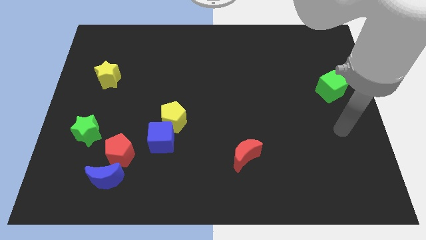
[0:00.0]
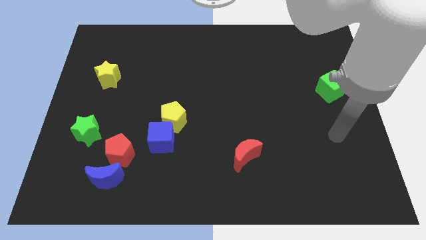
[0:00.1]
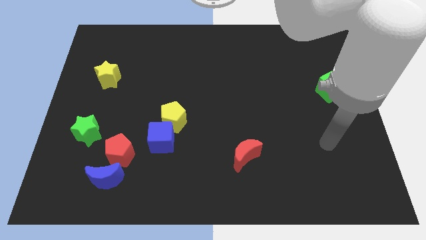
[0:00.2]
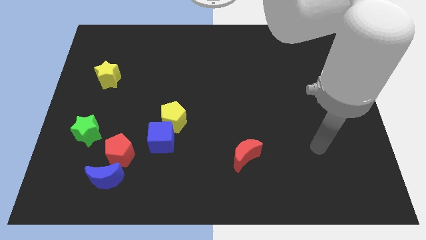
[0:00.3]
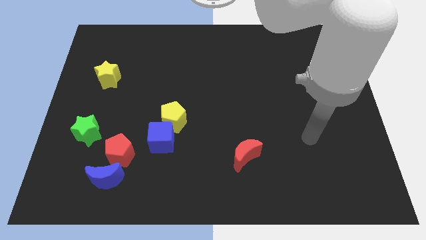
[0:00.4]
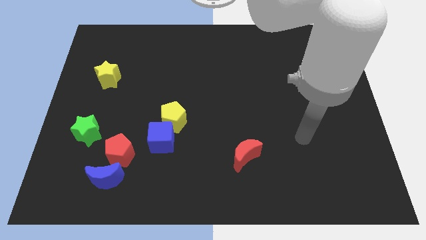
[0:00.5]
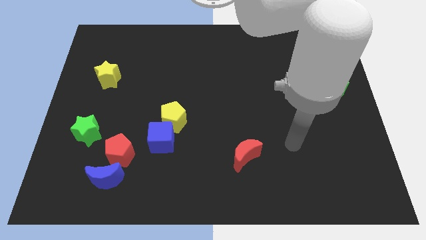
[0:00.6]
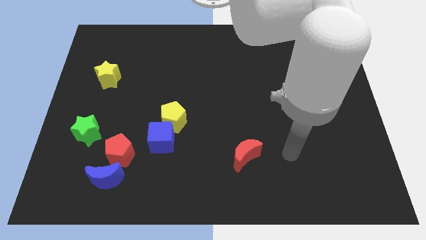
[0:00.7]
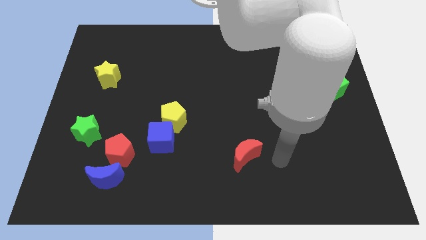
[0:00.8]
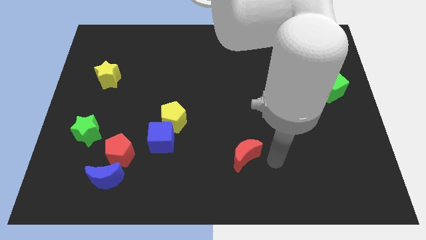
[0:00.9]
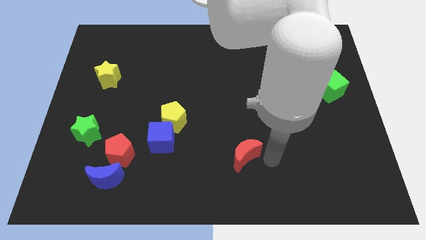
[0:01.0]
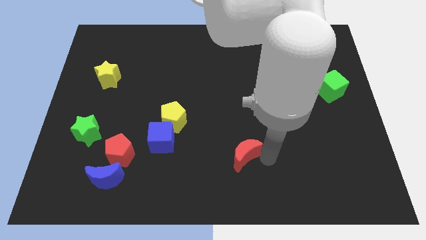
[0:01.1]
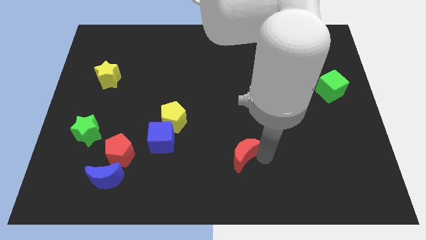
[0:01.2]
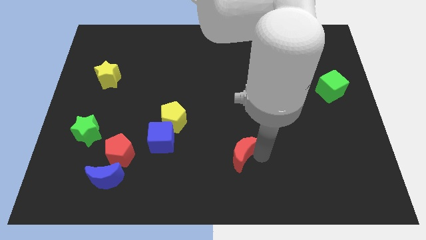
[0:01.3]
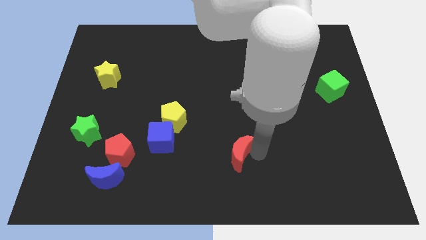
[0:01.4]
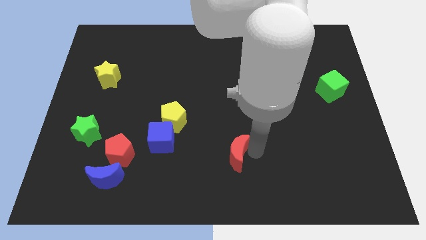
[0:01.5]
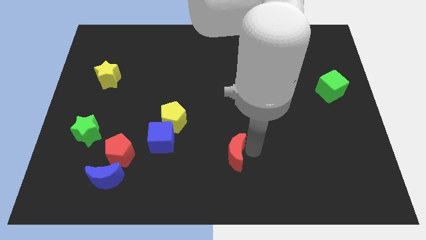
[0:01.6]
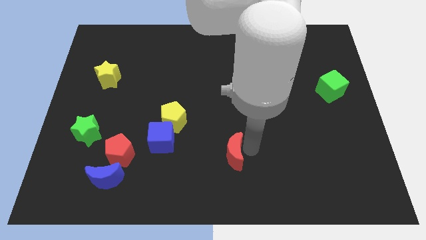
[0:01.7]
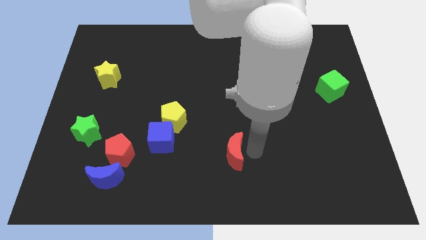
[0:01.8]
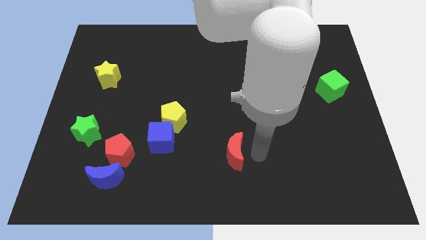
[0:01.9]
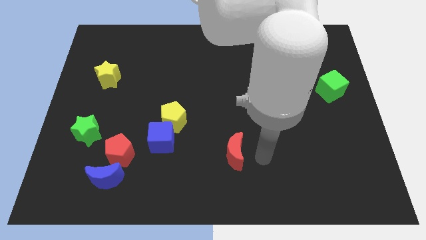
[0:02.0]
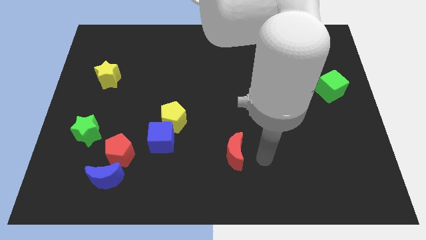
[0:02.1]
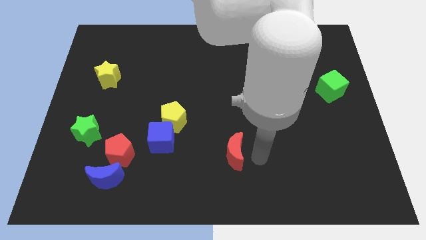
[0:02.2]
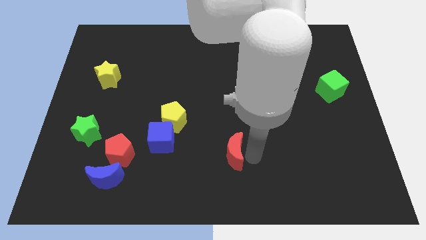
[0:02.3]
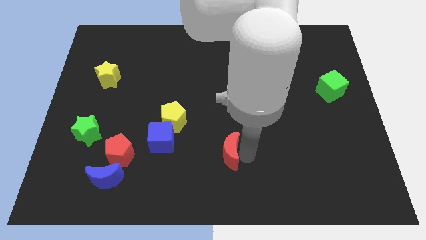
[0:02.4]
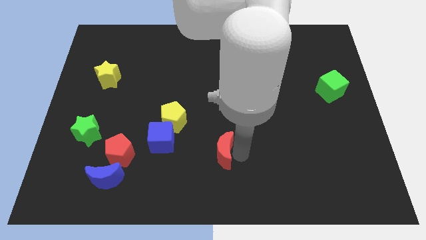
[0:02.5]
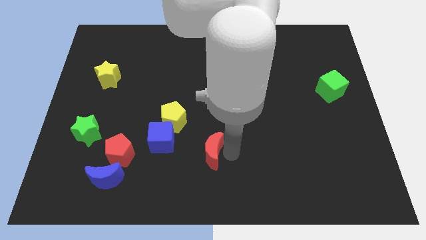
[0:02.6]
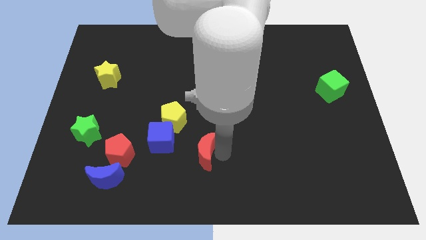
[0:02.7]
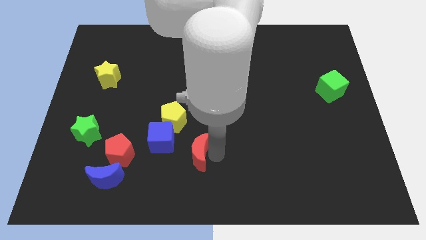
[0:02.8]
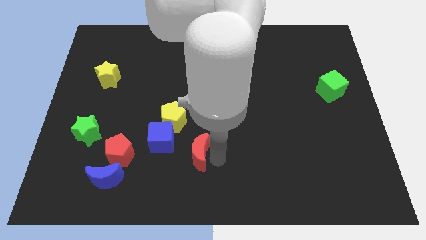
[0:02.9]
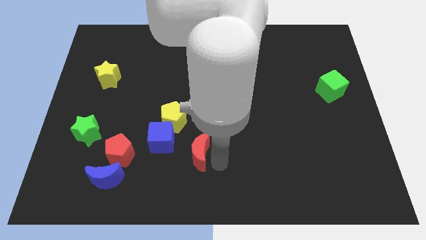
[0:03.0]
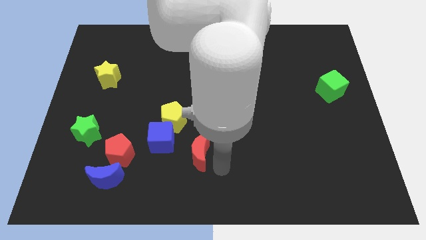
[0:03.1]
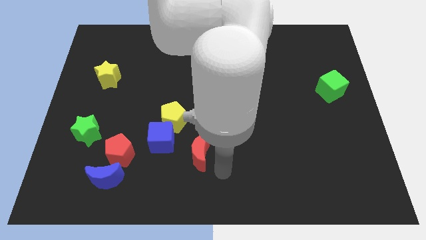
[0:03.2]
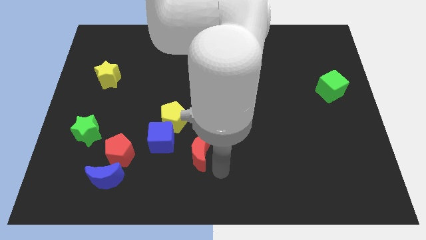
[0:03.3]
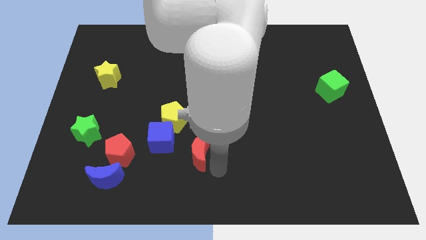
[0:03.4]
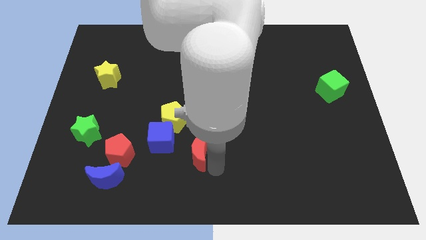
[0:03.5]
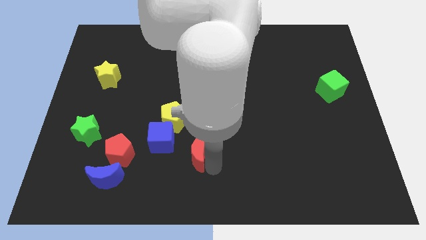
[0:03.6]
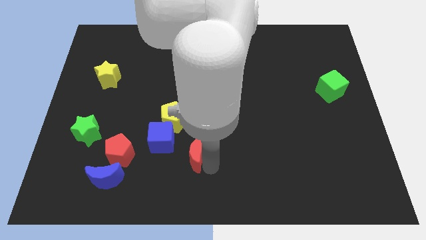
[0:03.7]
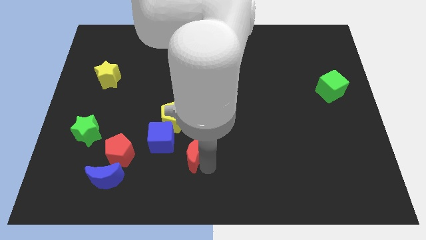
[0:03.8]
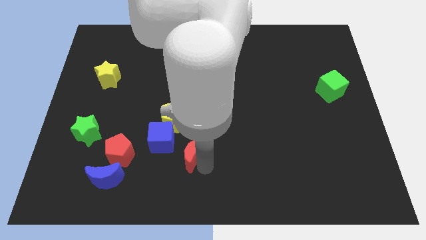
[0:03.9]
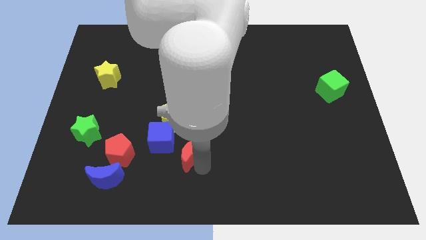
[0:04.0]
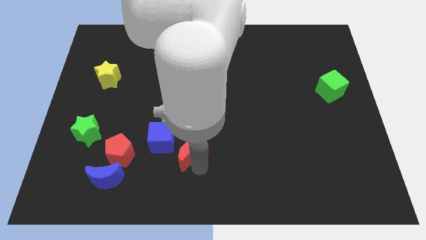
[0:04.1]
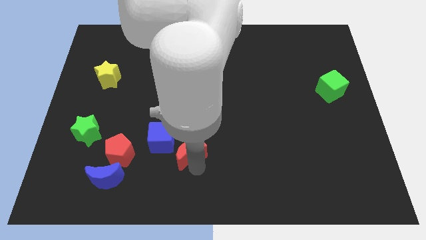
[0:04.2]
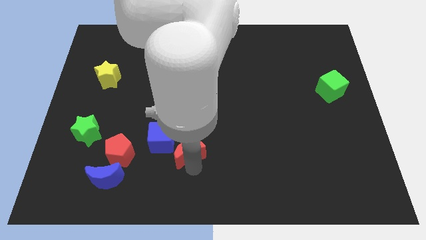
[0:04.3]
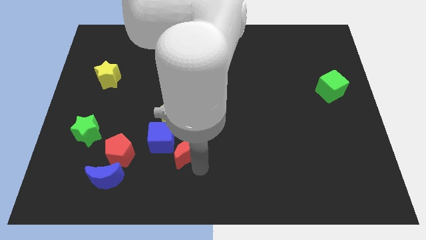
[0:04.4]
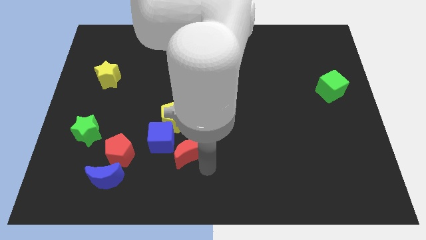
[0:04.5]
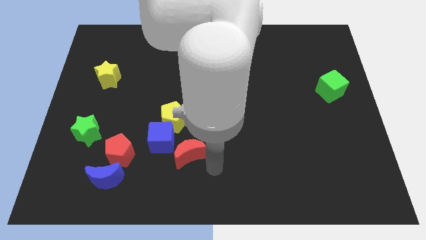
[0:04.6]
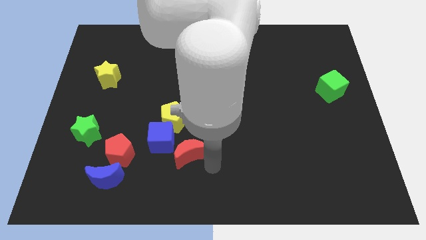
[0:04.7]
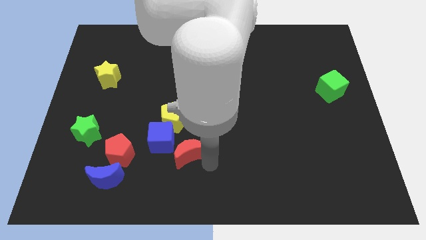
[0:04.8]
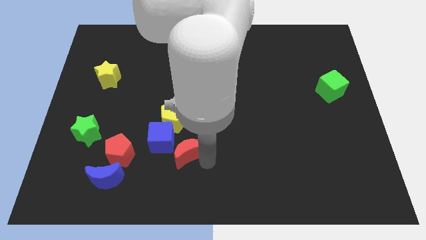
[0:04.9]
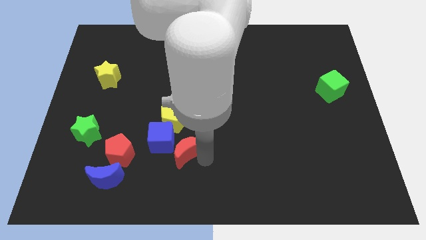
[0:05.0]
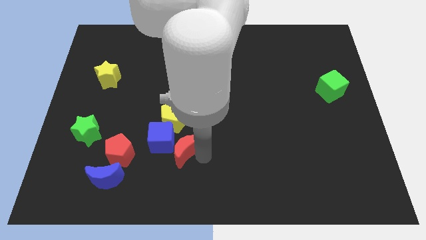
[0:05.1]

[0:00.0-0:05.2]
put the red moon to the blue cube

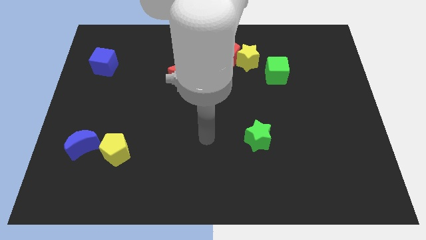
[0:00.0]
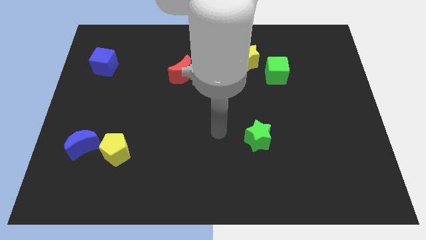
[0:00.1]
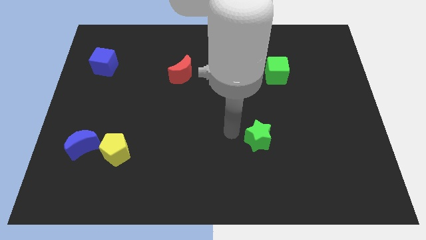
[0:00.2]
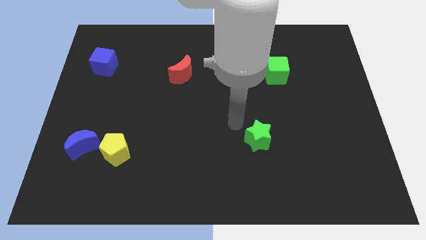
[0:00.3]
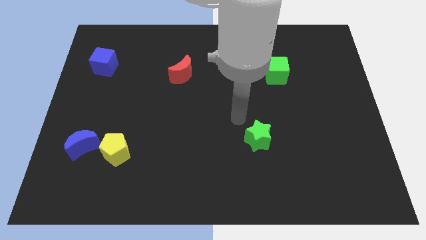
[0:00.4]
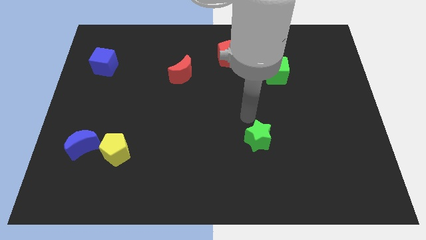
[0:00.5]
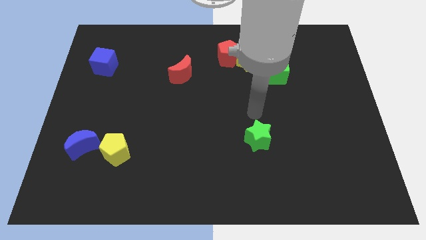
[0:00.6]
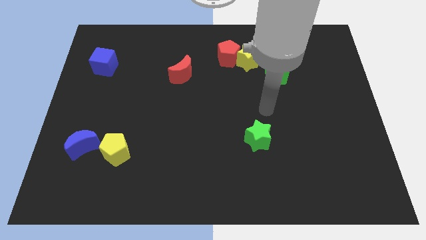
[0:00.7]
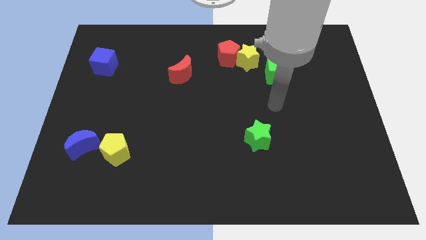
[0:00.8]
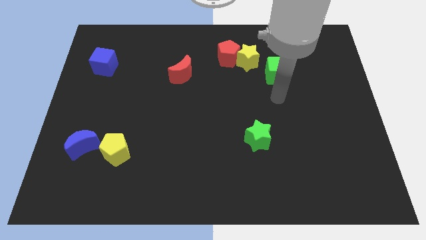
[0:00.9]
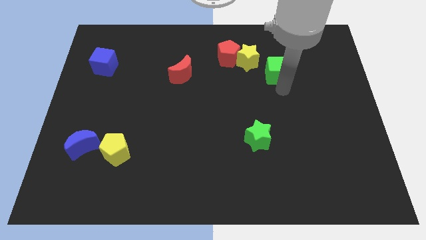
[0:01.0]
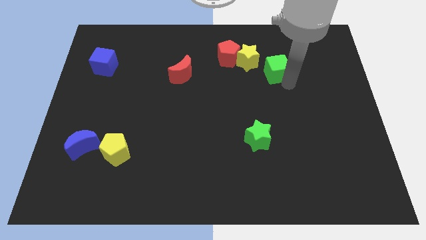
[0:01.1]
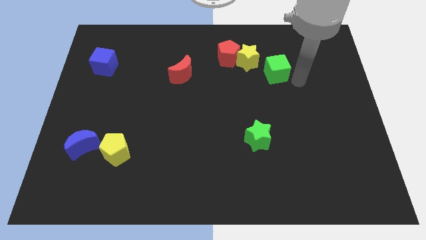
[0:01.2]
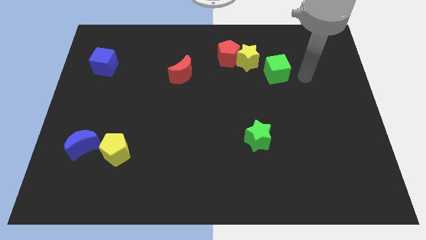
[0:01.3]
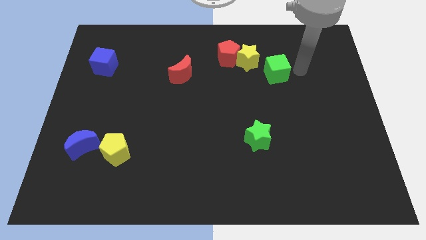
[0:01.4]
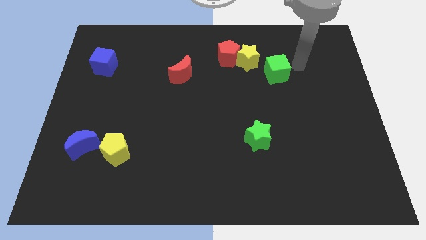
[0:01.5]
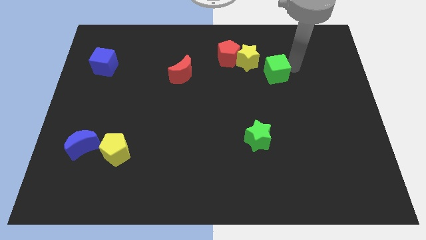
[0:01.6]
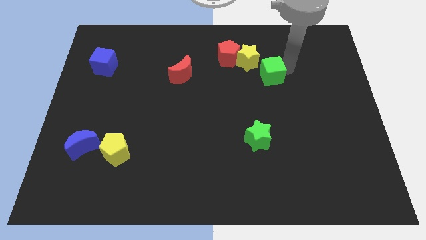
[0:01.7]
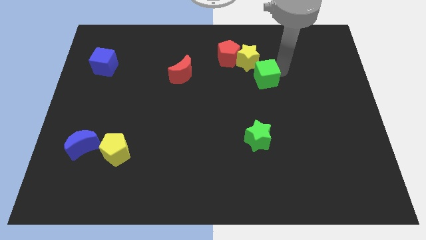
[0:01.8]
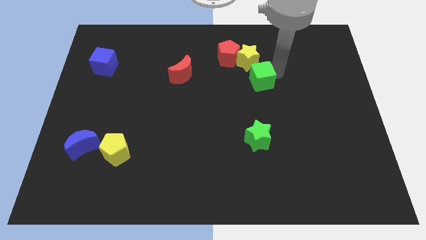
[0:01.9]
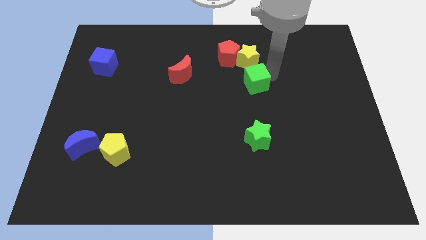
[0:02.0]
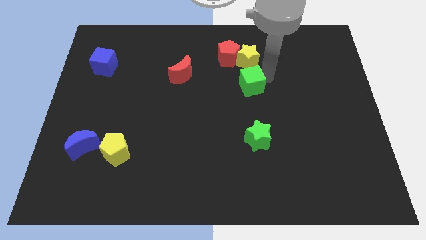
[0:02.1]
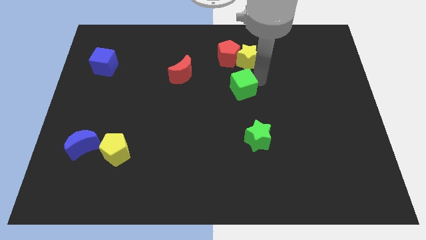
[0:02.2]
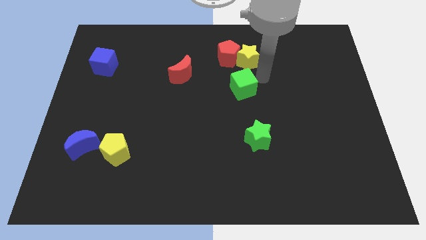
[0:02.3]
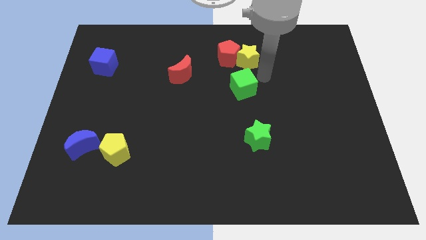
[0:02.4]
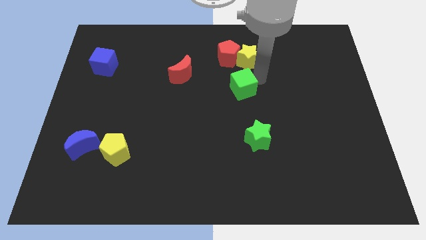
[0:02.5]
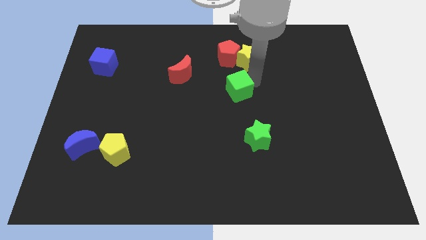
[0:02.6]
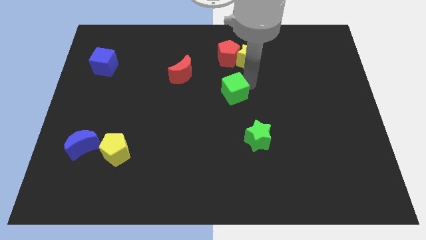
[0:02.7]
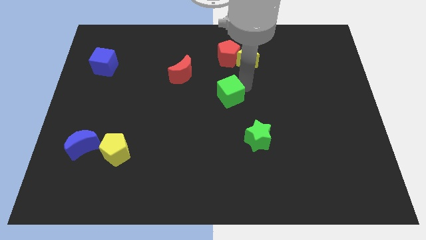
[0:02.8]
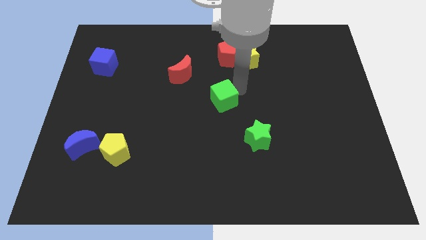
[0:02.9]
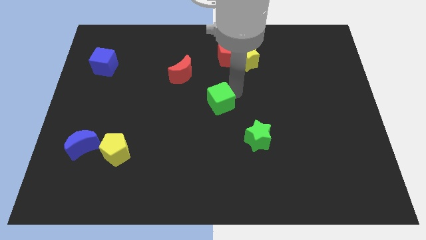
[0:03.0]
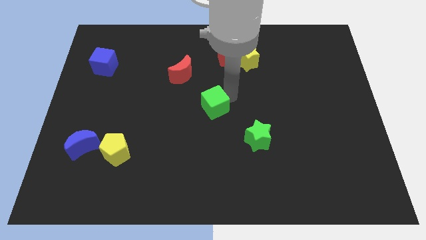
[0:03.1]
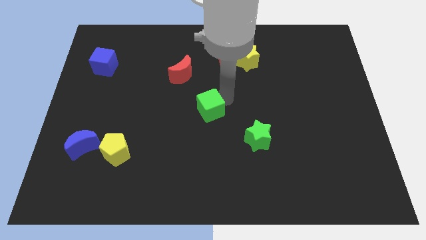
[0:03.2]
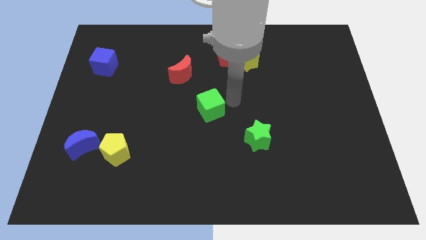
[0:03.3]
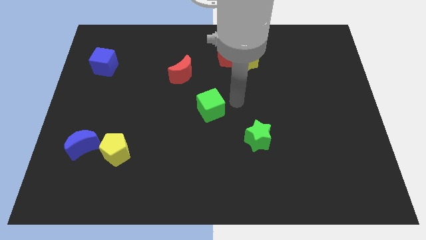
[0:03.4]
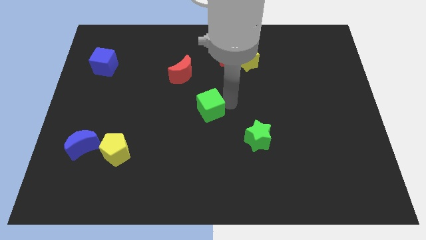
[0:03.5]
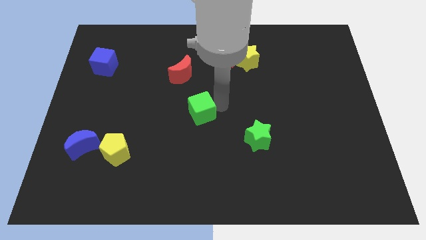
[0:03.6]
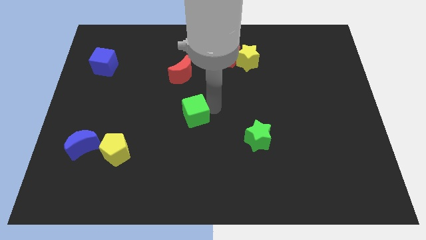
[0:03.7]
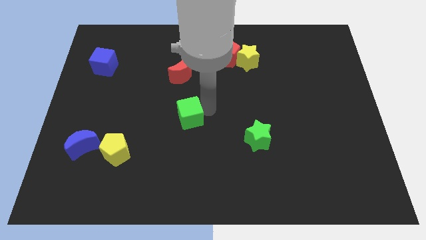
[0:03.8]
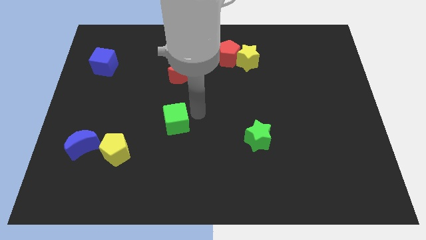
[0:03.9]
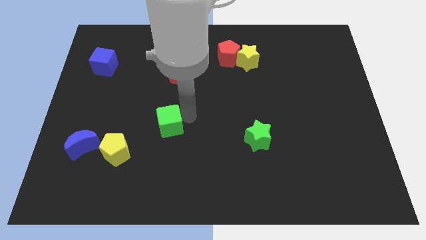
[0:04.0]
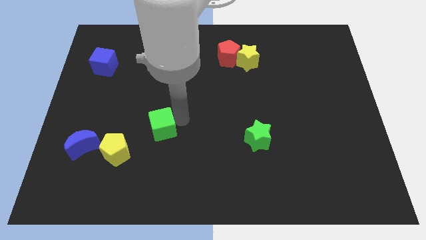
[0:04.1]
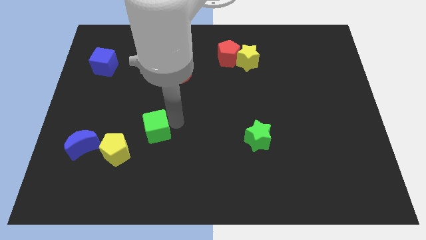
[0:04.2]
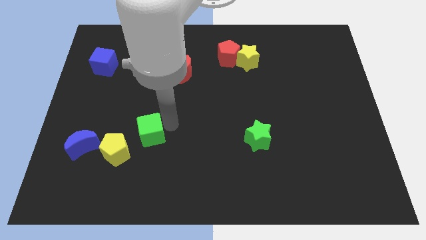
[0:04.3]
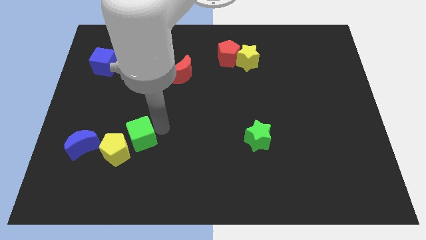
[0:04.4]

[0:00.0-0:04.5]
slide the green cube next to the yellow pentagon
